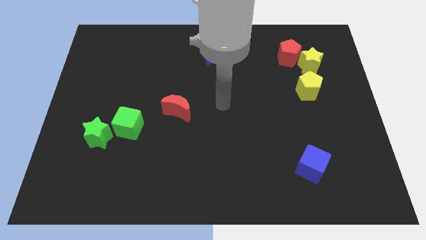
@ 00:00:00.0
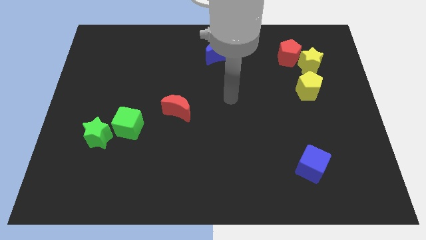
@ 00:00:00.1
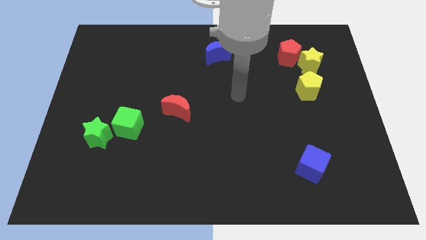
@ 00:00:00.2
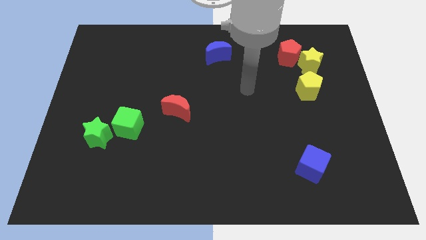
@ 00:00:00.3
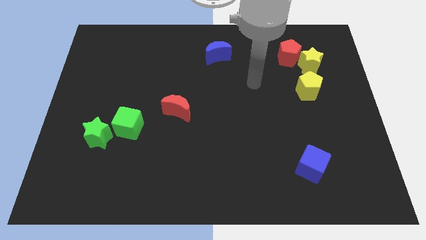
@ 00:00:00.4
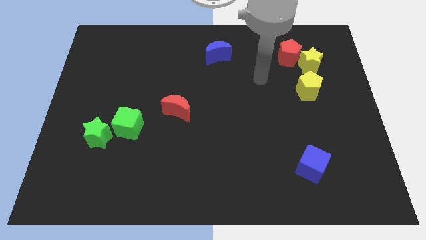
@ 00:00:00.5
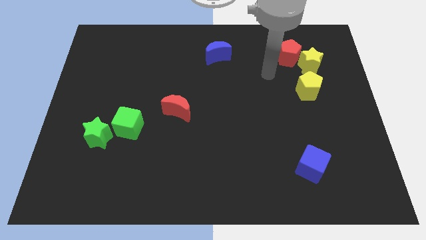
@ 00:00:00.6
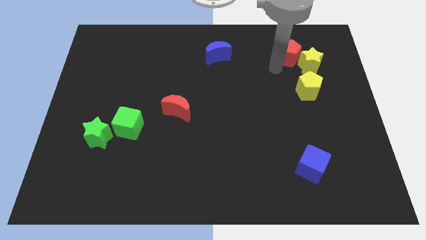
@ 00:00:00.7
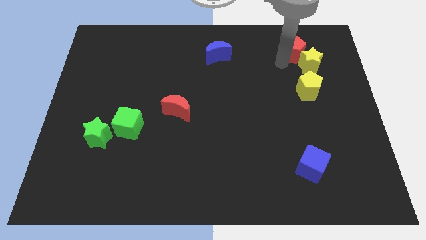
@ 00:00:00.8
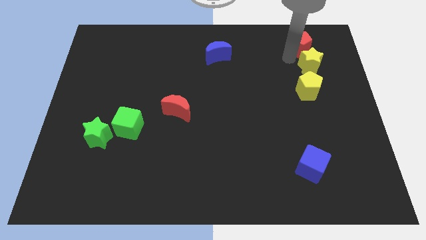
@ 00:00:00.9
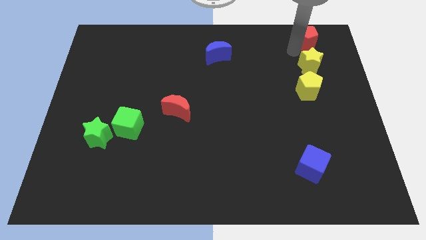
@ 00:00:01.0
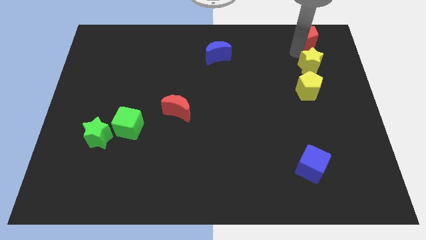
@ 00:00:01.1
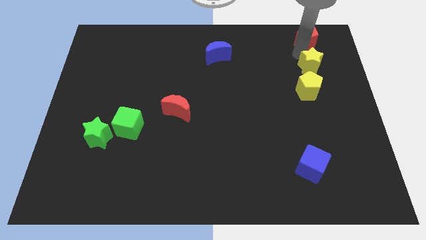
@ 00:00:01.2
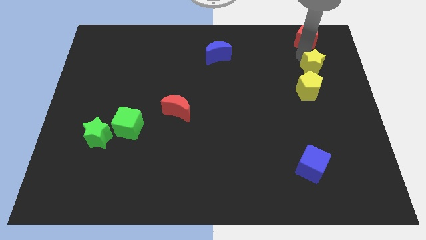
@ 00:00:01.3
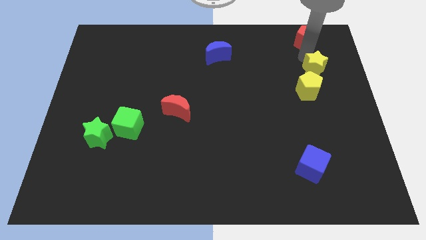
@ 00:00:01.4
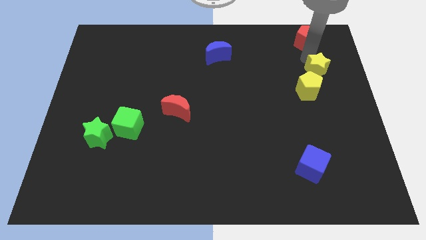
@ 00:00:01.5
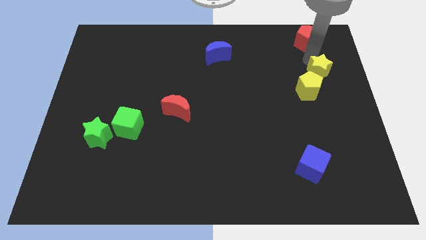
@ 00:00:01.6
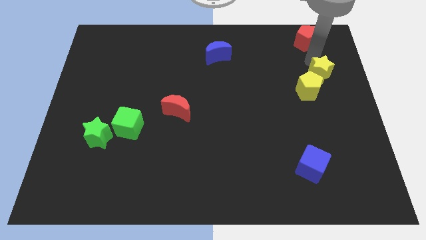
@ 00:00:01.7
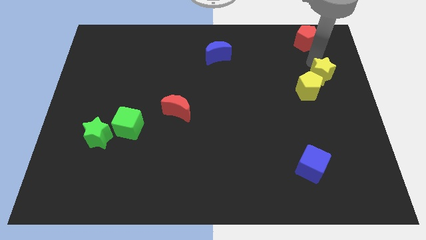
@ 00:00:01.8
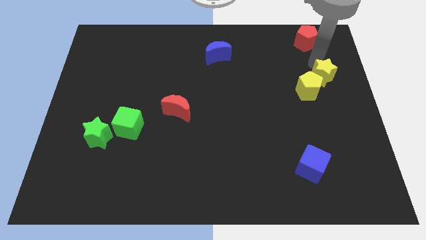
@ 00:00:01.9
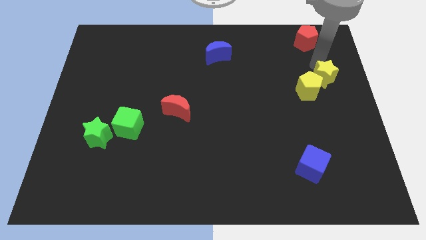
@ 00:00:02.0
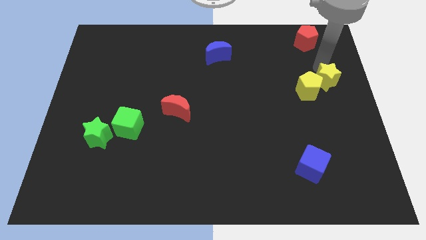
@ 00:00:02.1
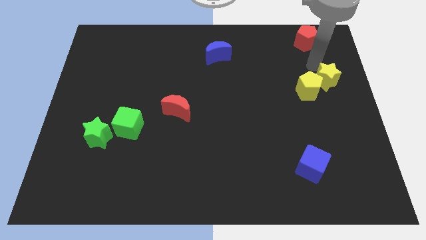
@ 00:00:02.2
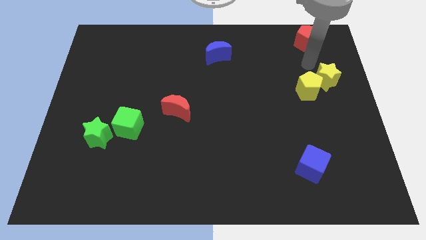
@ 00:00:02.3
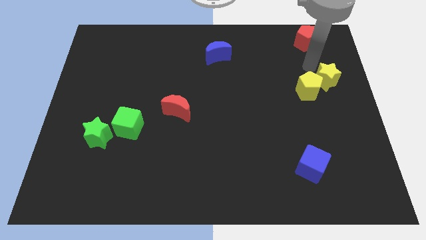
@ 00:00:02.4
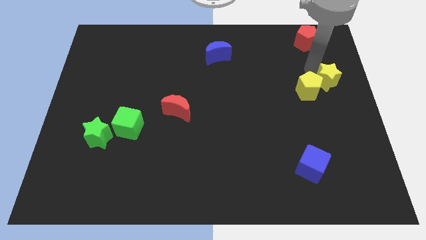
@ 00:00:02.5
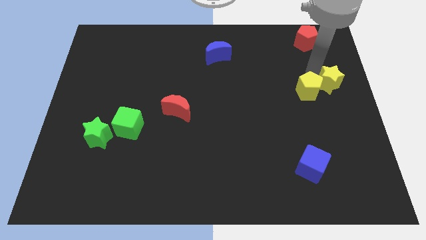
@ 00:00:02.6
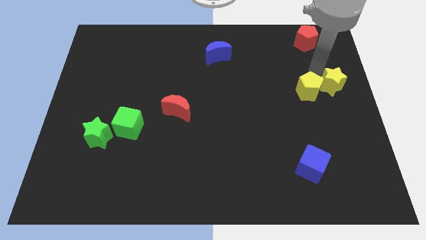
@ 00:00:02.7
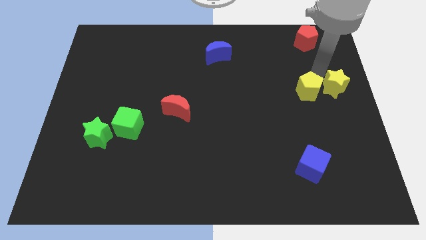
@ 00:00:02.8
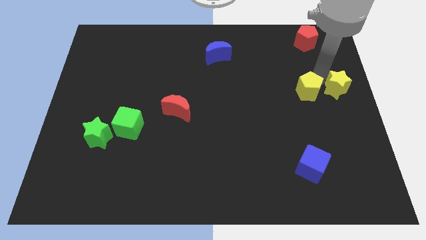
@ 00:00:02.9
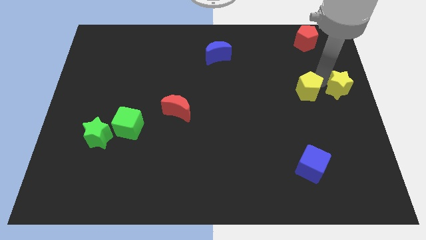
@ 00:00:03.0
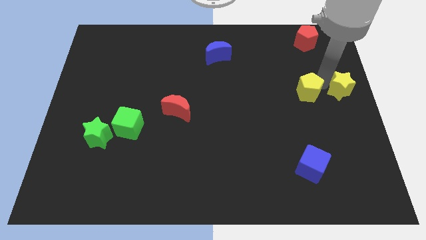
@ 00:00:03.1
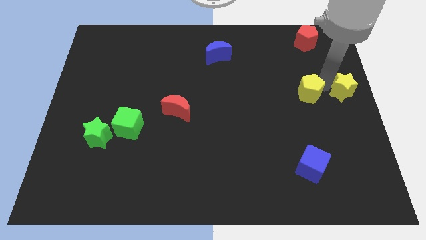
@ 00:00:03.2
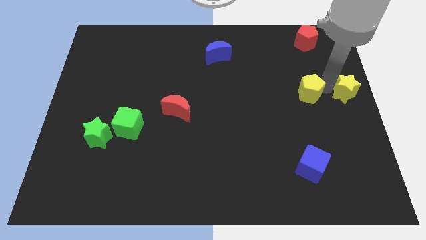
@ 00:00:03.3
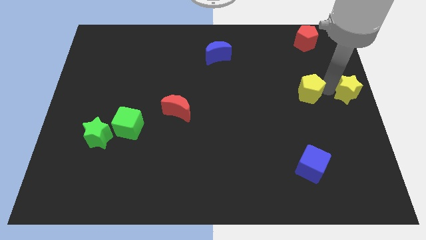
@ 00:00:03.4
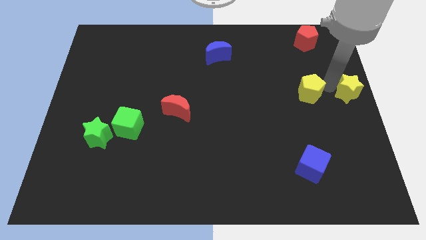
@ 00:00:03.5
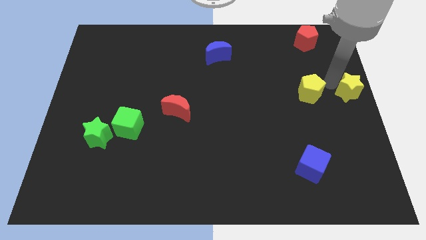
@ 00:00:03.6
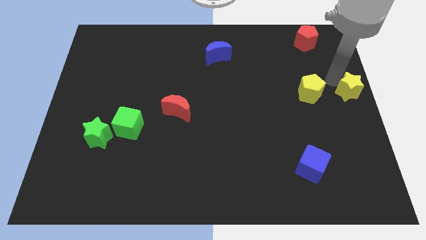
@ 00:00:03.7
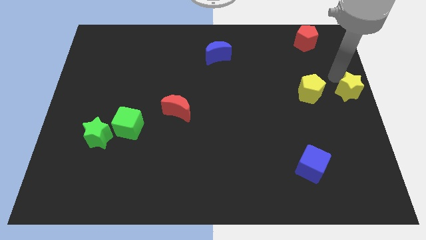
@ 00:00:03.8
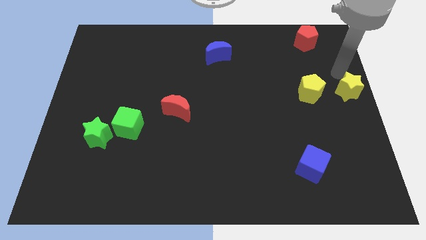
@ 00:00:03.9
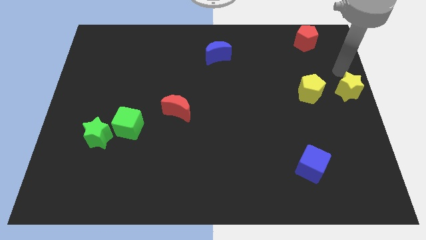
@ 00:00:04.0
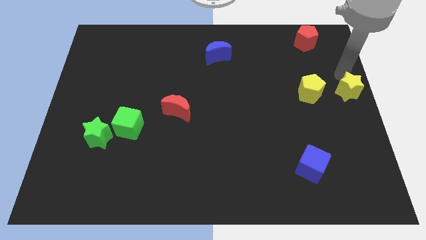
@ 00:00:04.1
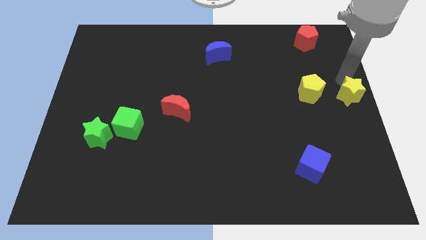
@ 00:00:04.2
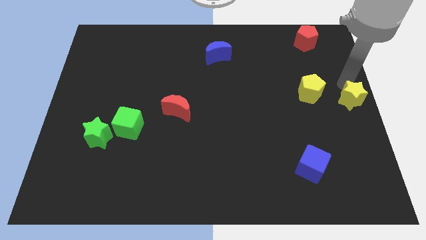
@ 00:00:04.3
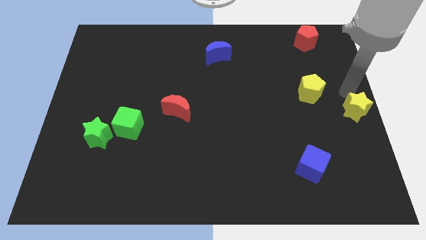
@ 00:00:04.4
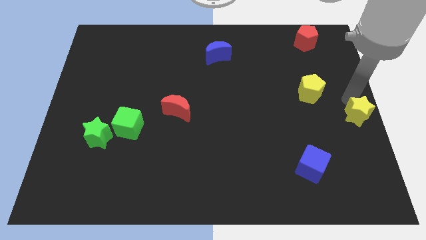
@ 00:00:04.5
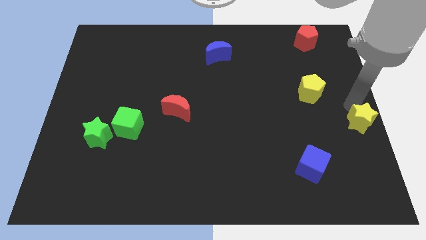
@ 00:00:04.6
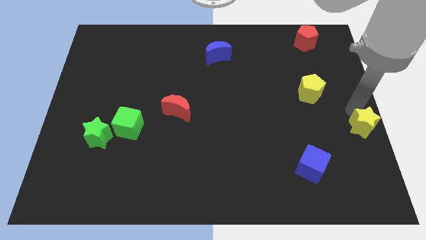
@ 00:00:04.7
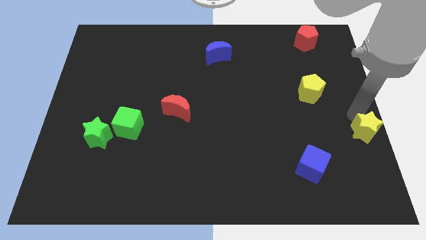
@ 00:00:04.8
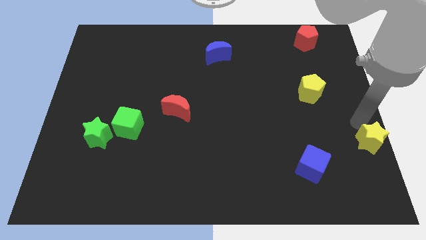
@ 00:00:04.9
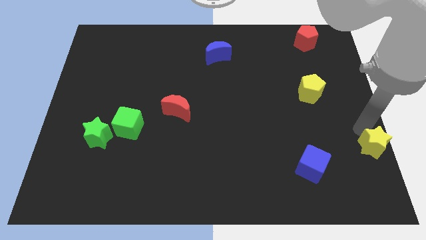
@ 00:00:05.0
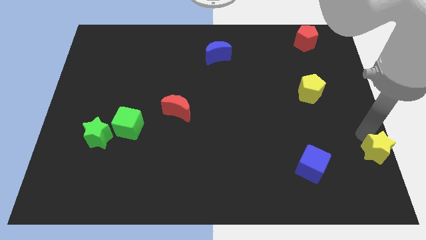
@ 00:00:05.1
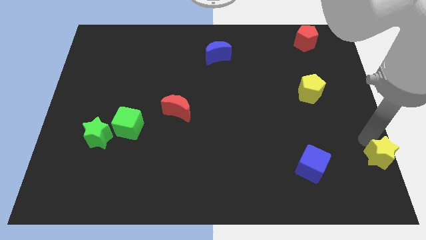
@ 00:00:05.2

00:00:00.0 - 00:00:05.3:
move the yellow star to the bottom right
